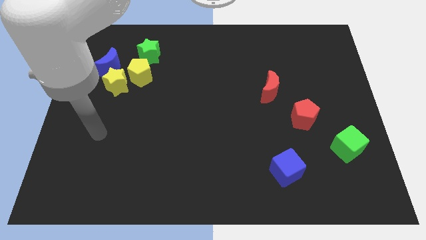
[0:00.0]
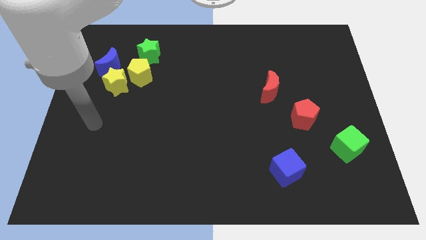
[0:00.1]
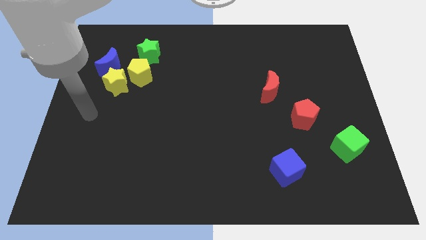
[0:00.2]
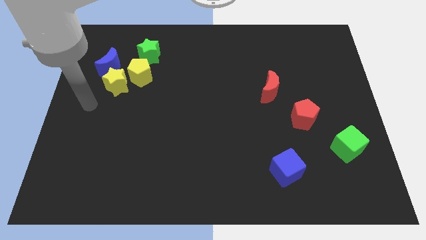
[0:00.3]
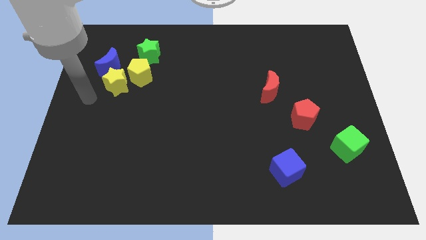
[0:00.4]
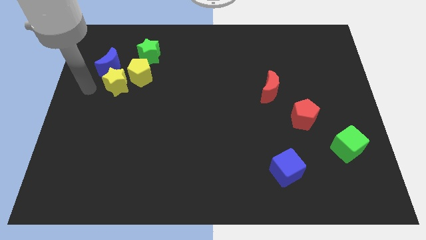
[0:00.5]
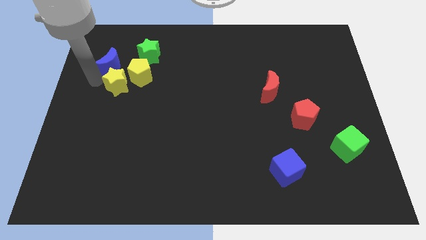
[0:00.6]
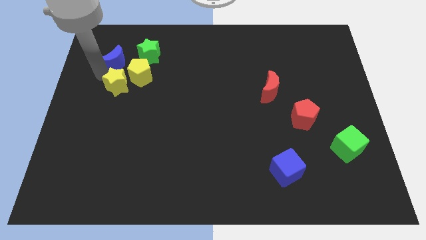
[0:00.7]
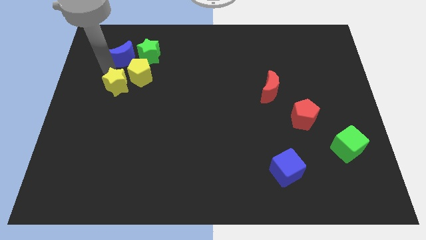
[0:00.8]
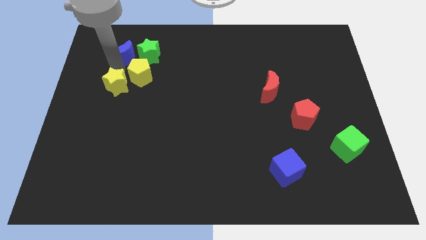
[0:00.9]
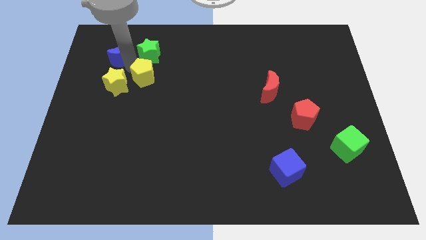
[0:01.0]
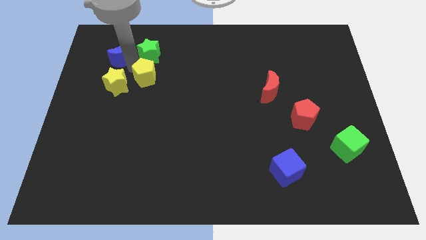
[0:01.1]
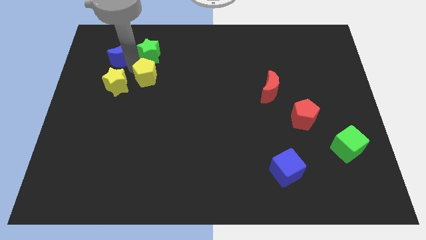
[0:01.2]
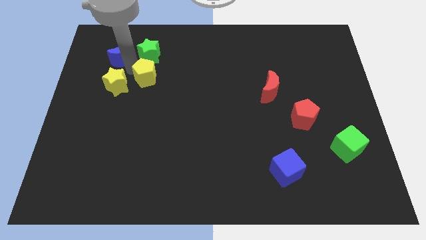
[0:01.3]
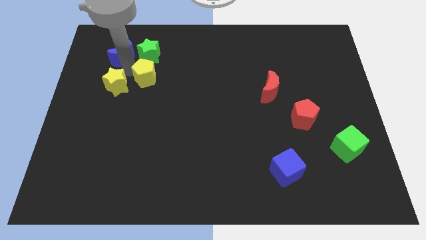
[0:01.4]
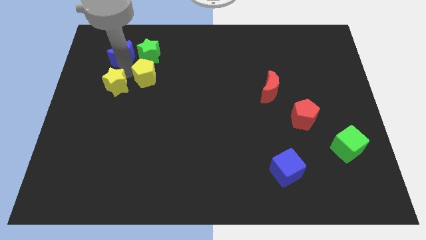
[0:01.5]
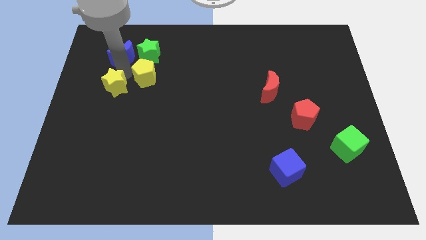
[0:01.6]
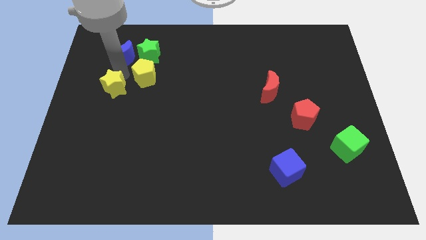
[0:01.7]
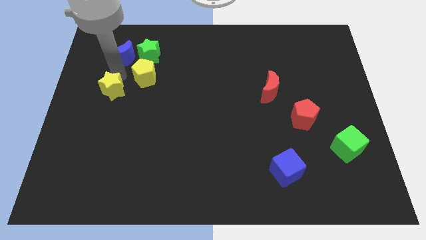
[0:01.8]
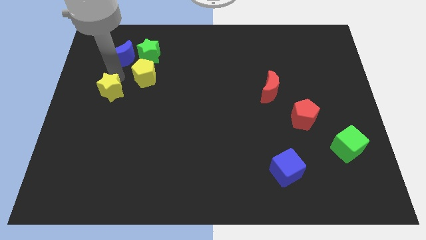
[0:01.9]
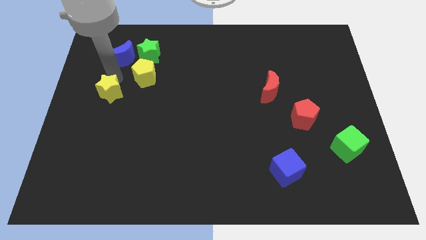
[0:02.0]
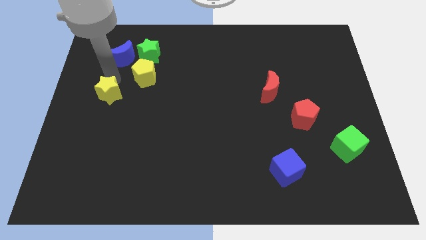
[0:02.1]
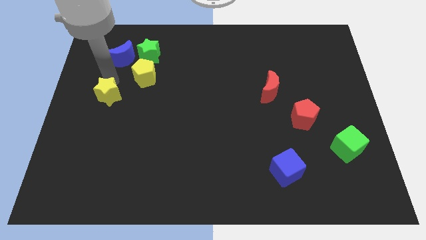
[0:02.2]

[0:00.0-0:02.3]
pull the yellow star apart from the yellow pentagon and blue moon

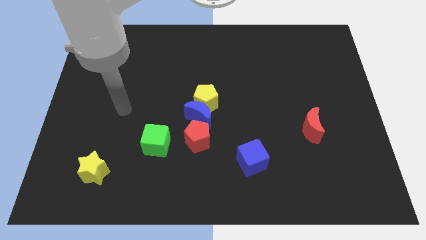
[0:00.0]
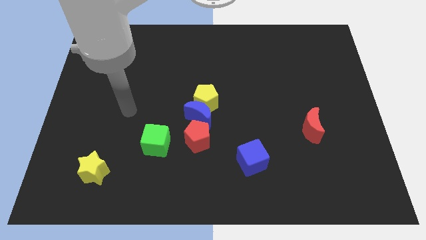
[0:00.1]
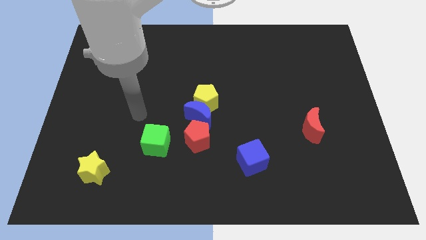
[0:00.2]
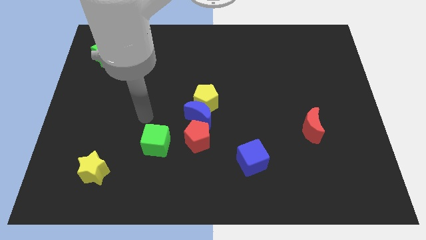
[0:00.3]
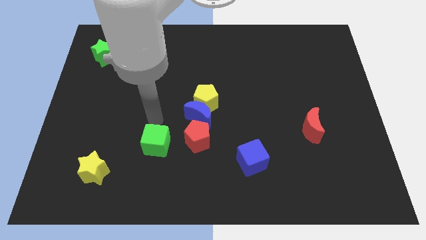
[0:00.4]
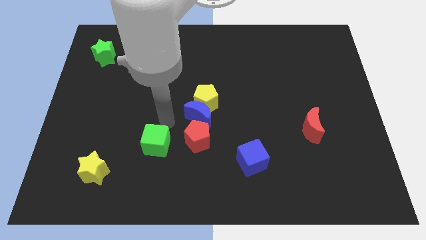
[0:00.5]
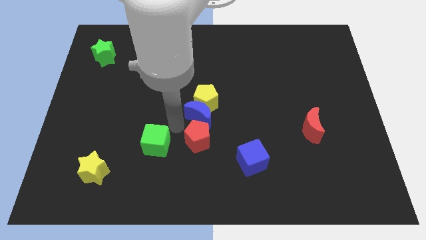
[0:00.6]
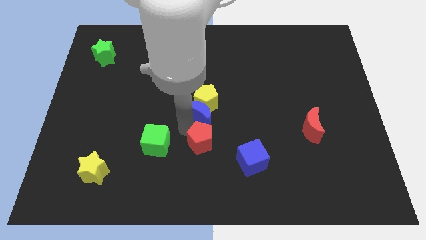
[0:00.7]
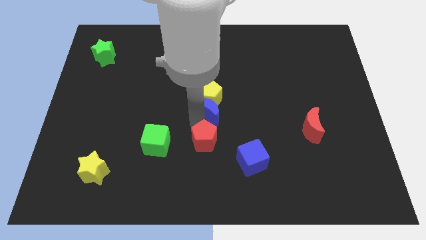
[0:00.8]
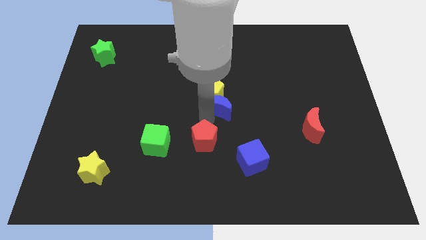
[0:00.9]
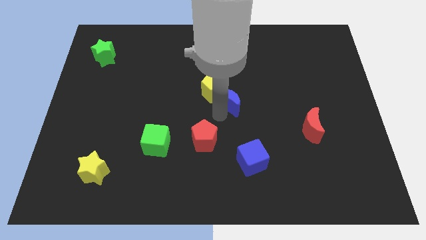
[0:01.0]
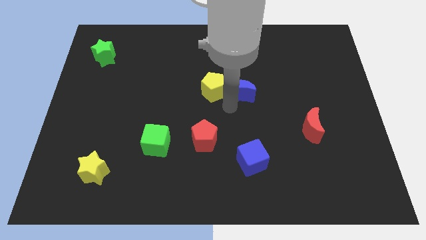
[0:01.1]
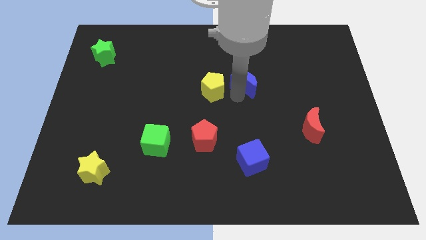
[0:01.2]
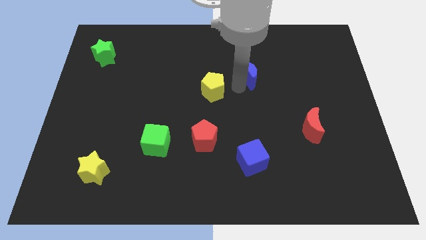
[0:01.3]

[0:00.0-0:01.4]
pull the yellow pentagon apart from the blue moon

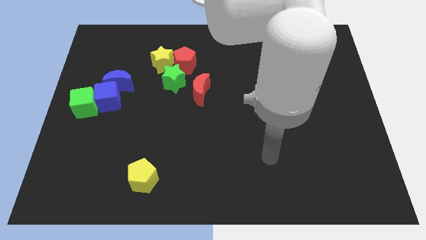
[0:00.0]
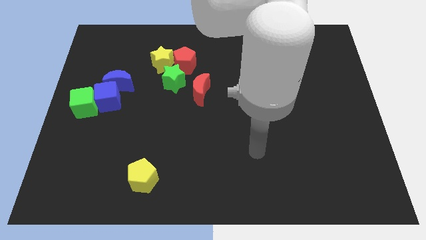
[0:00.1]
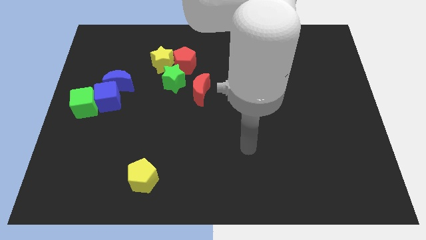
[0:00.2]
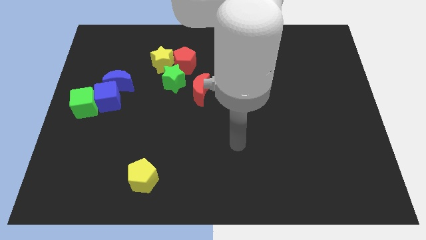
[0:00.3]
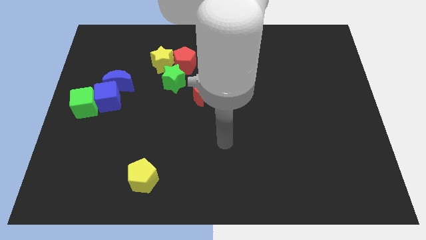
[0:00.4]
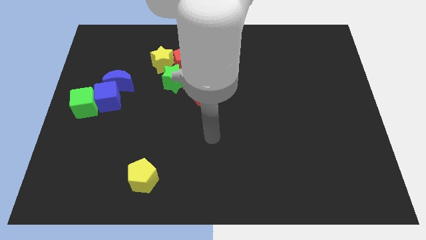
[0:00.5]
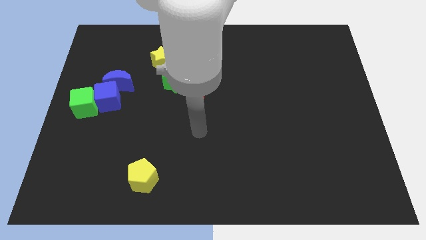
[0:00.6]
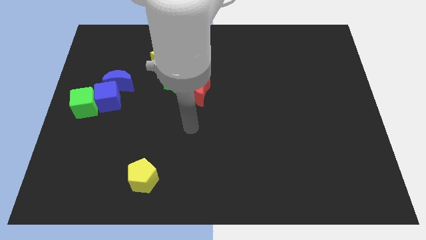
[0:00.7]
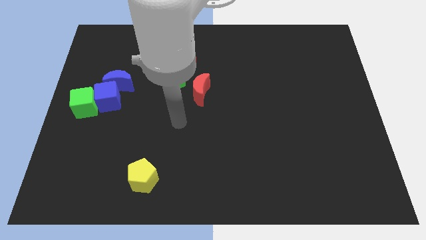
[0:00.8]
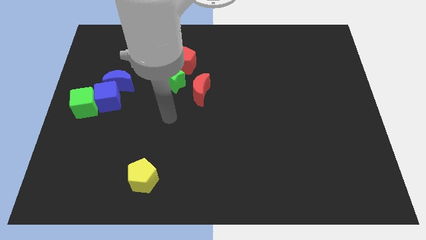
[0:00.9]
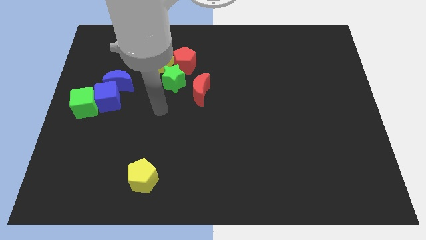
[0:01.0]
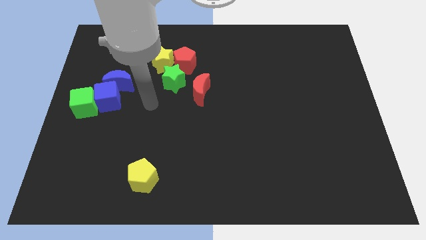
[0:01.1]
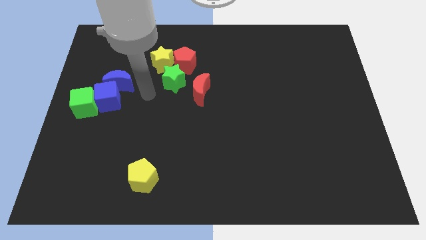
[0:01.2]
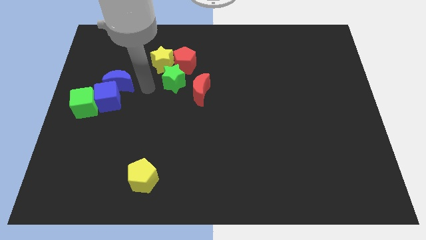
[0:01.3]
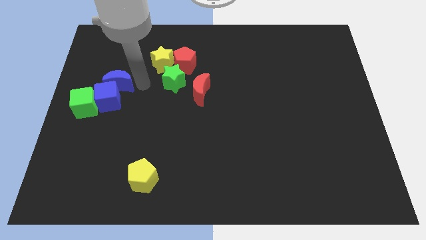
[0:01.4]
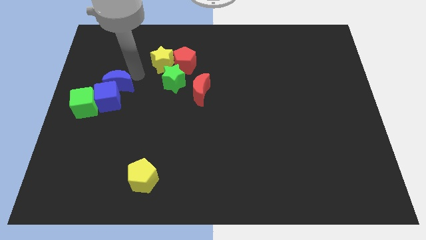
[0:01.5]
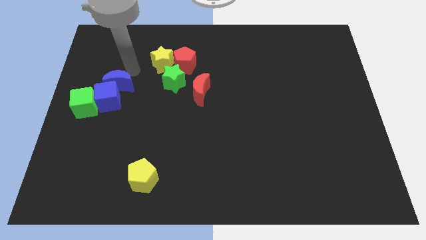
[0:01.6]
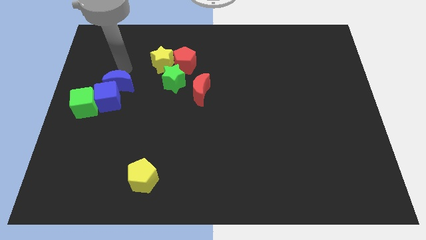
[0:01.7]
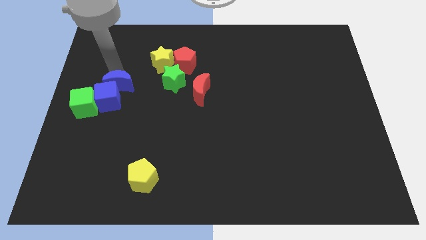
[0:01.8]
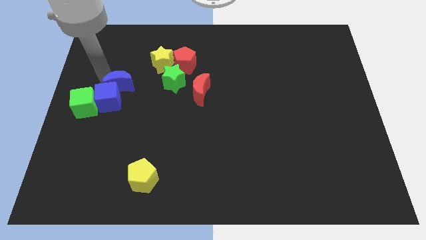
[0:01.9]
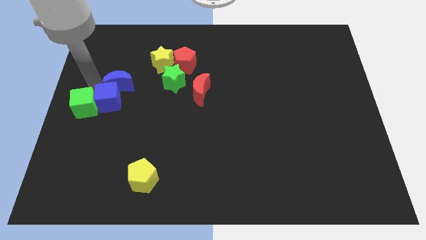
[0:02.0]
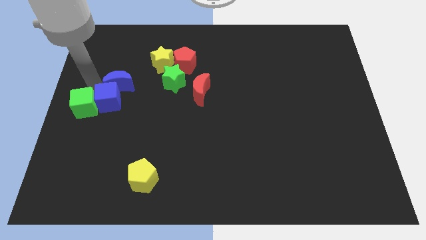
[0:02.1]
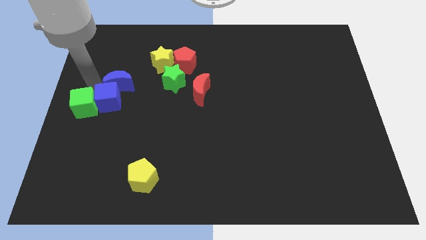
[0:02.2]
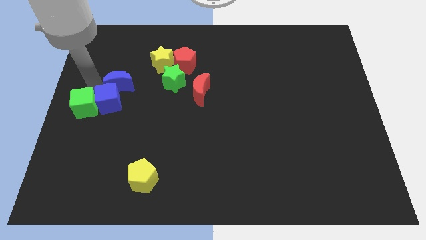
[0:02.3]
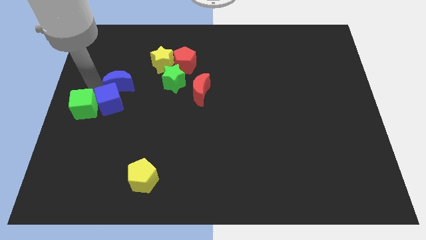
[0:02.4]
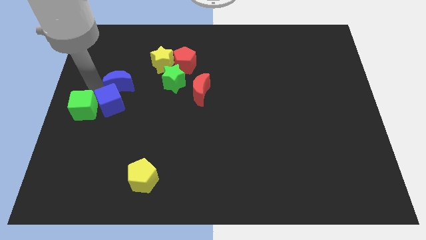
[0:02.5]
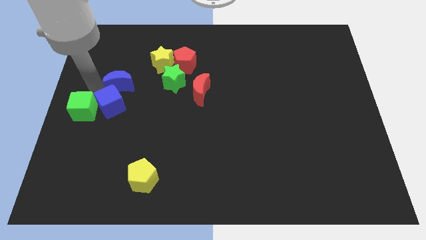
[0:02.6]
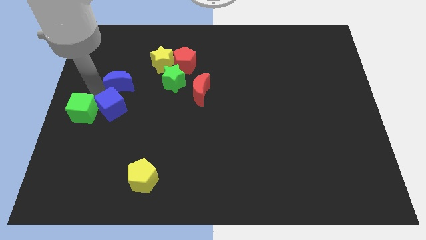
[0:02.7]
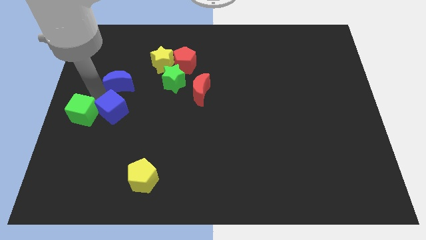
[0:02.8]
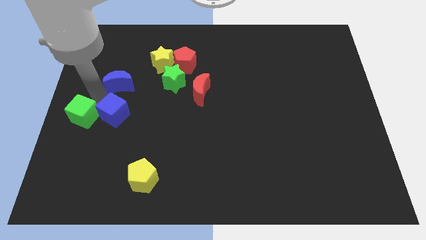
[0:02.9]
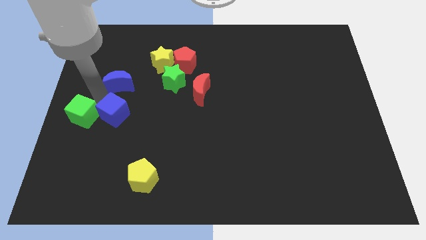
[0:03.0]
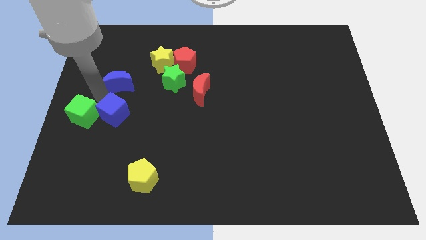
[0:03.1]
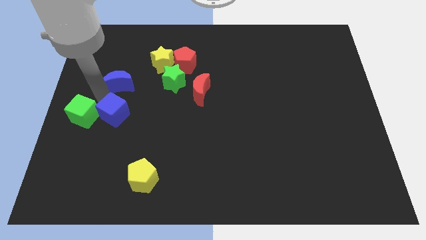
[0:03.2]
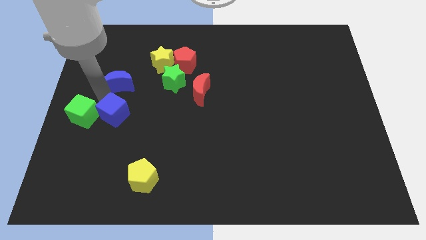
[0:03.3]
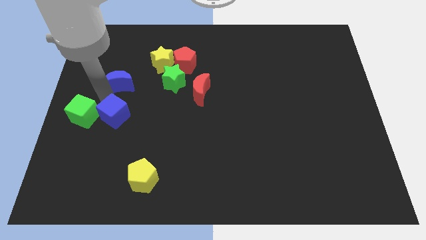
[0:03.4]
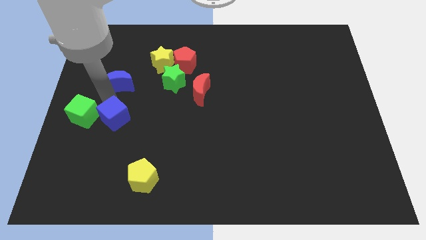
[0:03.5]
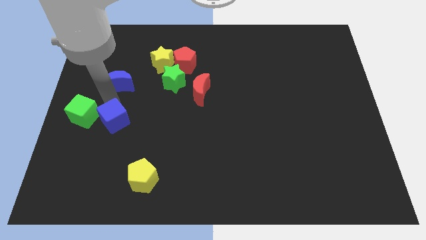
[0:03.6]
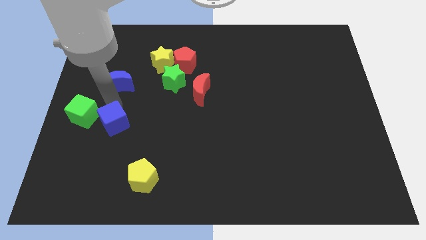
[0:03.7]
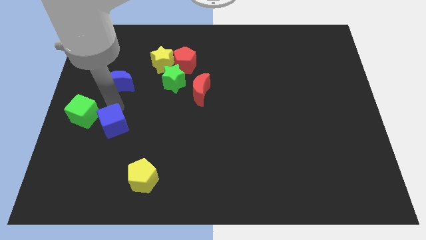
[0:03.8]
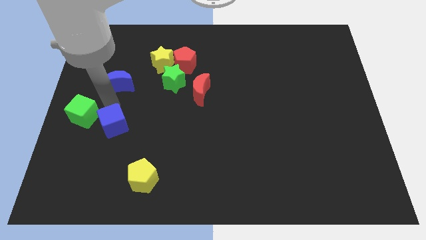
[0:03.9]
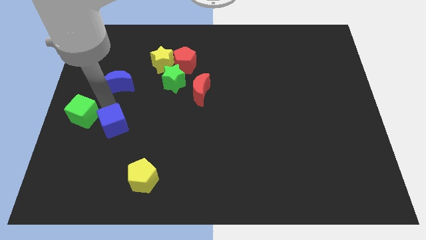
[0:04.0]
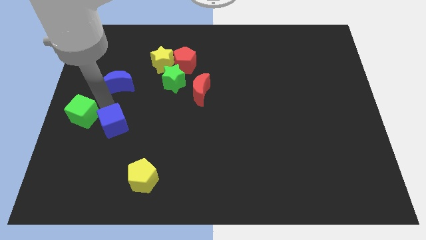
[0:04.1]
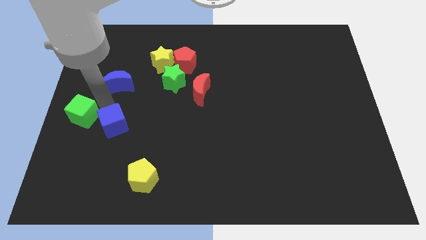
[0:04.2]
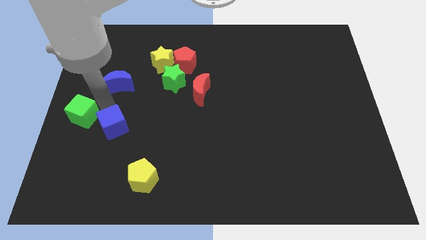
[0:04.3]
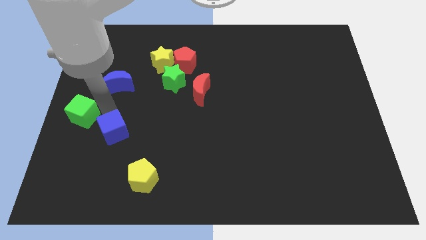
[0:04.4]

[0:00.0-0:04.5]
move the blue cube away from the blue moon and green cube

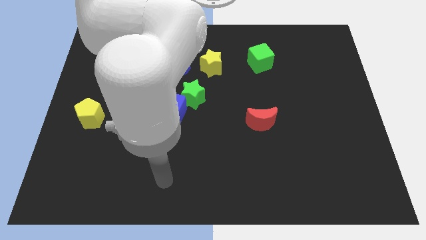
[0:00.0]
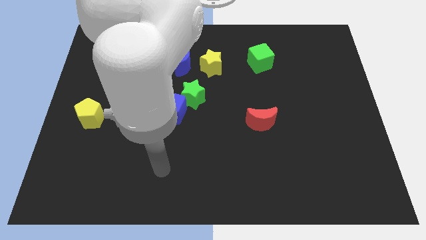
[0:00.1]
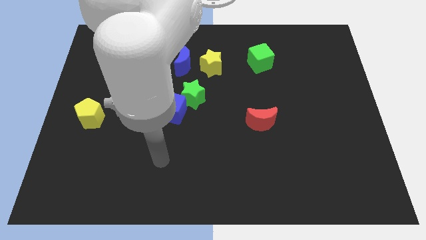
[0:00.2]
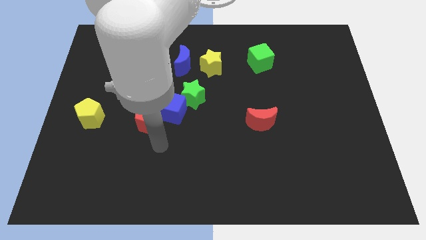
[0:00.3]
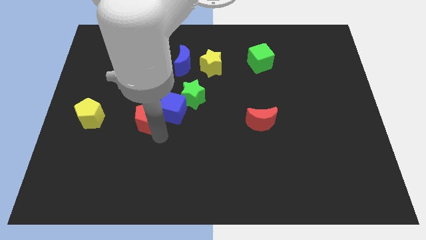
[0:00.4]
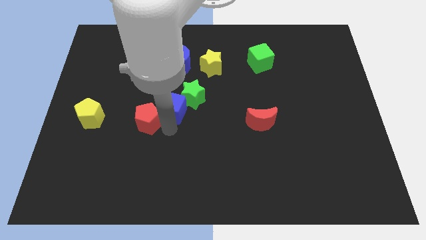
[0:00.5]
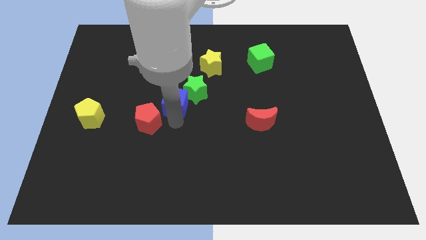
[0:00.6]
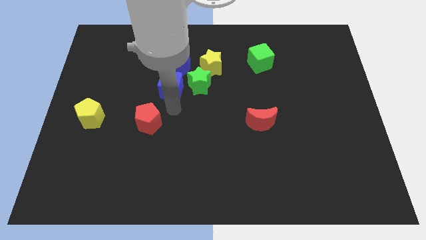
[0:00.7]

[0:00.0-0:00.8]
pull the red pentagon apart from the blue cube

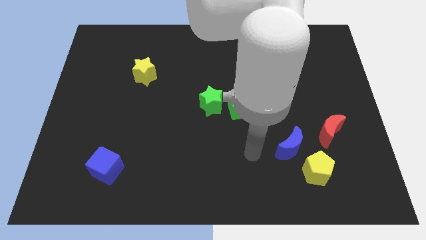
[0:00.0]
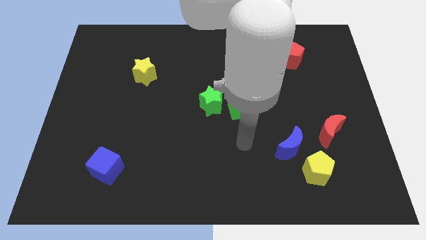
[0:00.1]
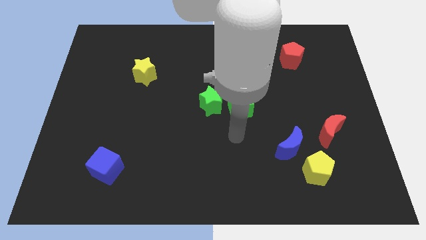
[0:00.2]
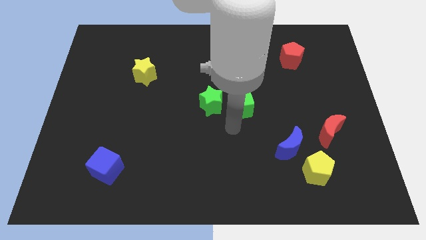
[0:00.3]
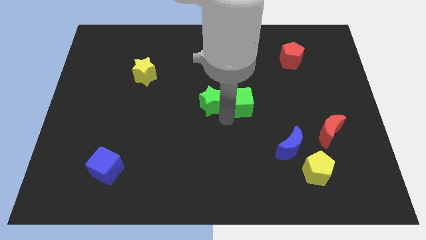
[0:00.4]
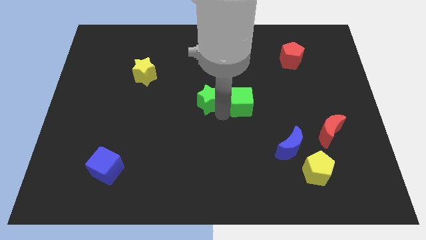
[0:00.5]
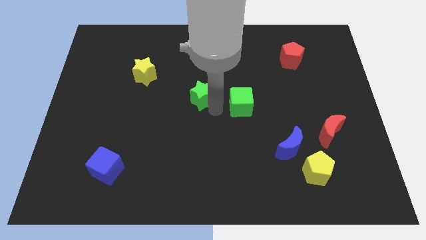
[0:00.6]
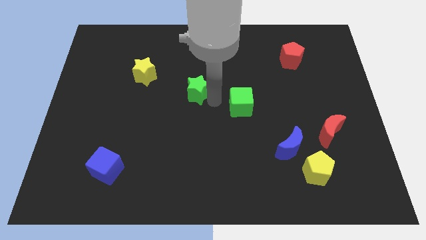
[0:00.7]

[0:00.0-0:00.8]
separate the green cube from the green star
